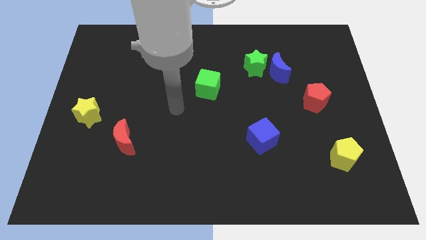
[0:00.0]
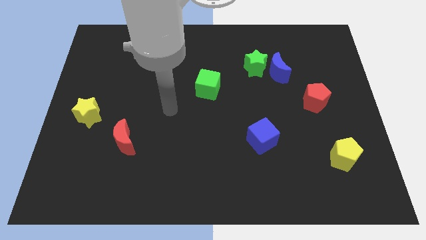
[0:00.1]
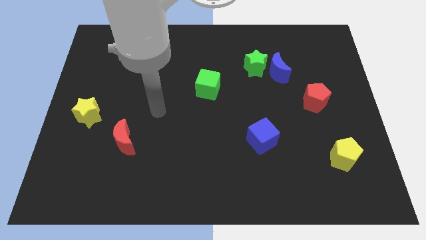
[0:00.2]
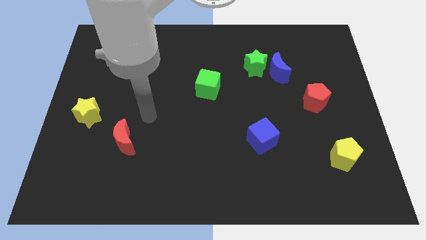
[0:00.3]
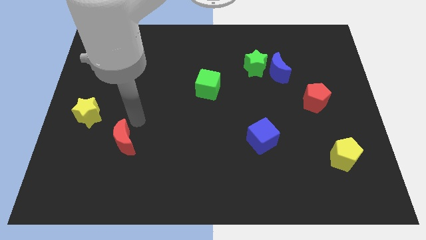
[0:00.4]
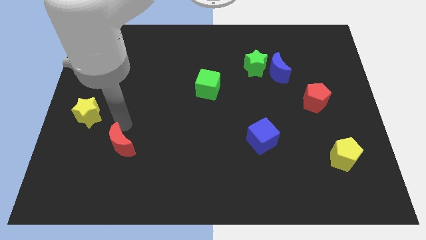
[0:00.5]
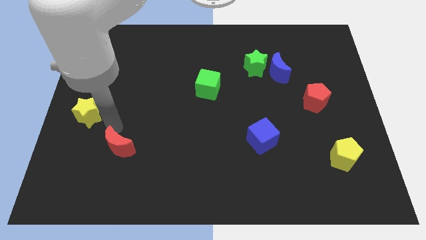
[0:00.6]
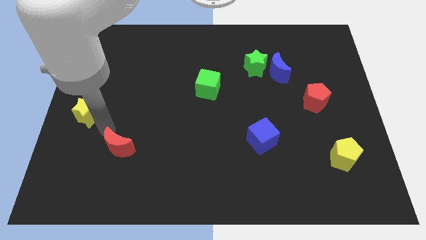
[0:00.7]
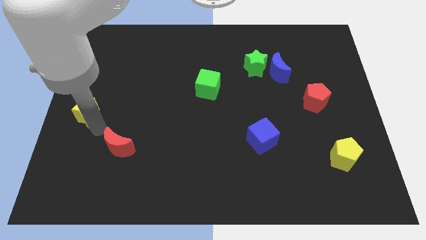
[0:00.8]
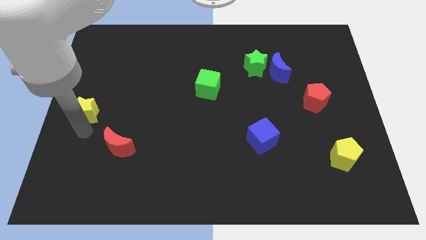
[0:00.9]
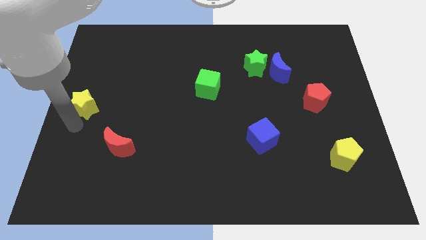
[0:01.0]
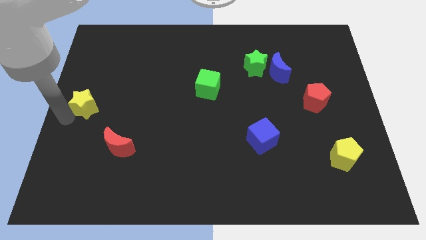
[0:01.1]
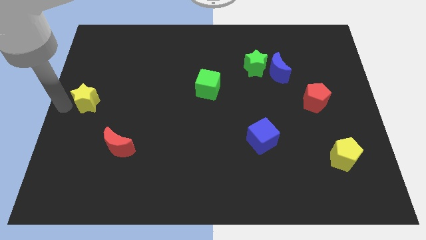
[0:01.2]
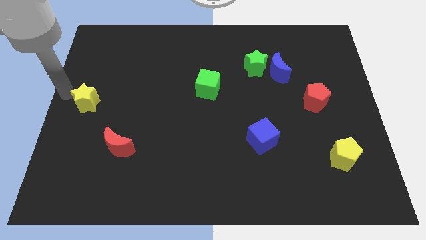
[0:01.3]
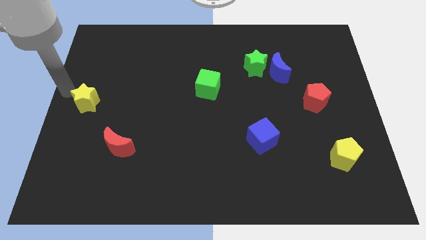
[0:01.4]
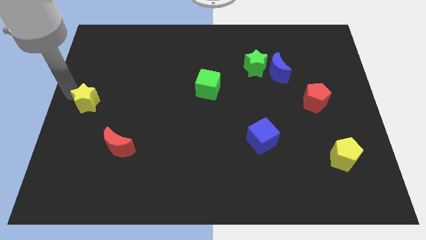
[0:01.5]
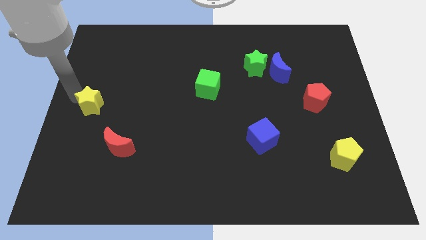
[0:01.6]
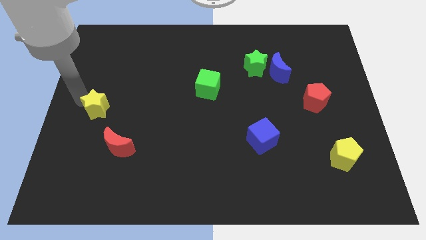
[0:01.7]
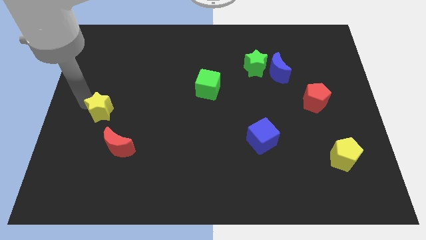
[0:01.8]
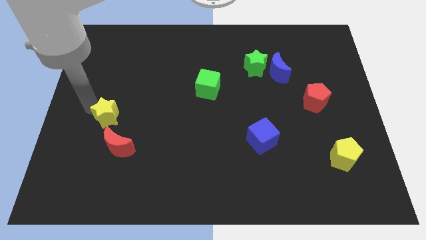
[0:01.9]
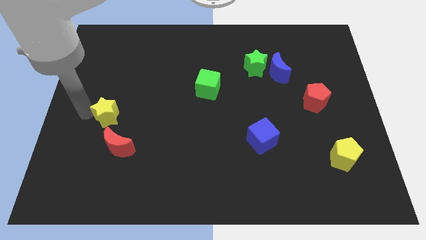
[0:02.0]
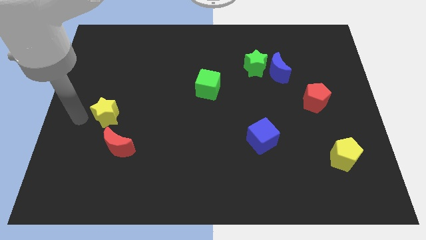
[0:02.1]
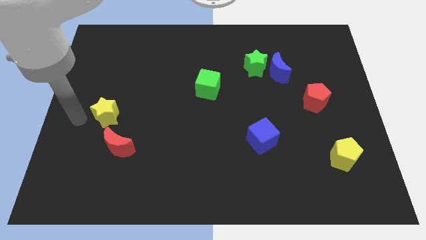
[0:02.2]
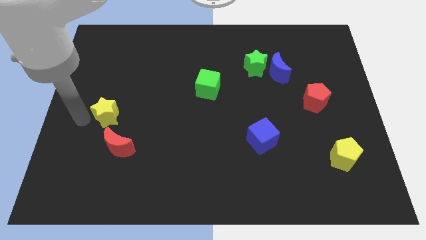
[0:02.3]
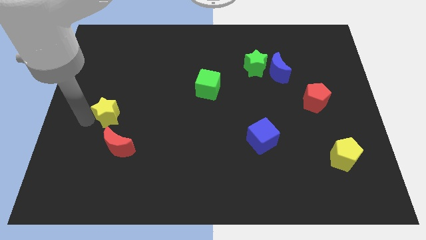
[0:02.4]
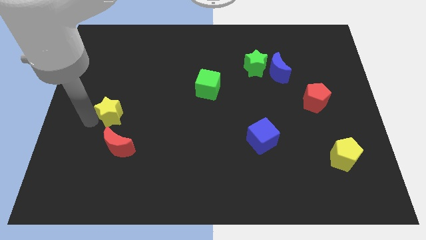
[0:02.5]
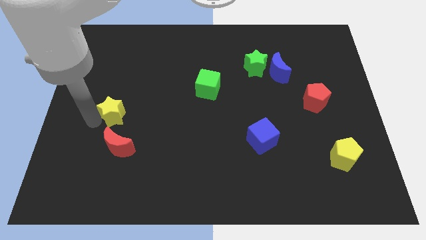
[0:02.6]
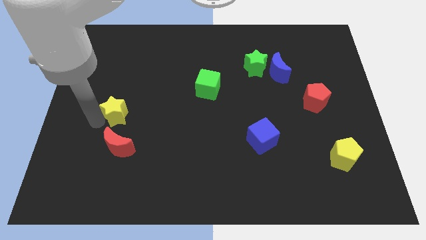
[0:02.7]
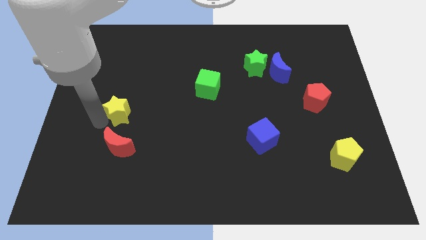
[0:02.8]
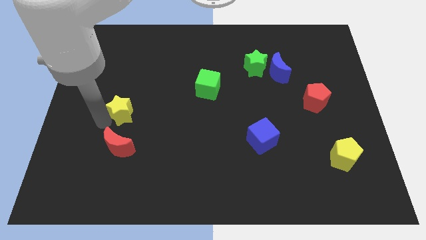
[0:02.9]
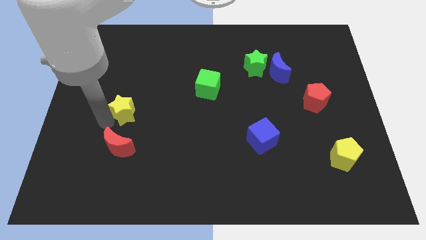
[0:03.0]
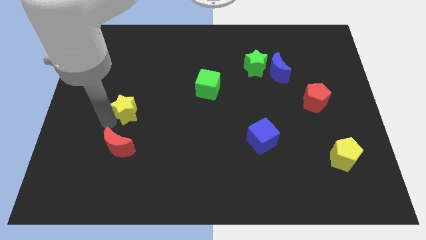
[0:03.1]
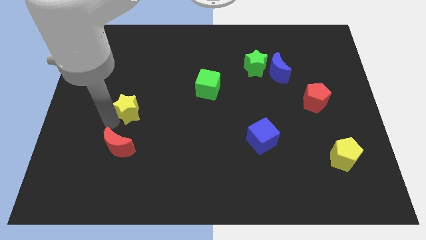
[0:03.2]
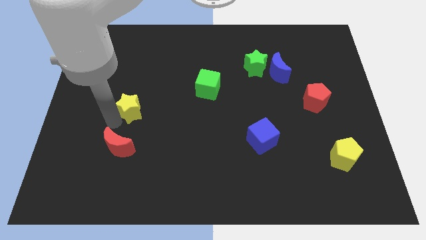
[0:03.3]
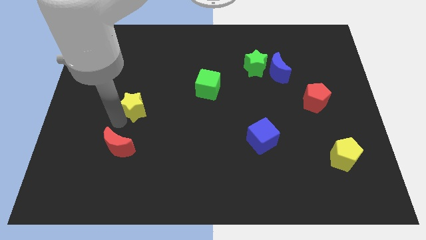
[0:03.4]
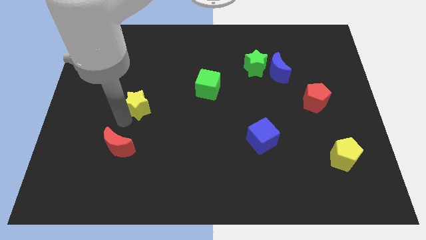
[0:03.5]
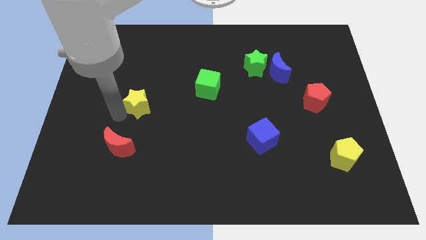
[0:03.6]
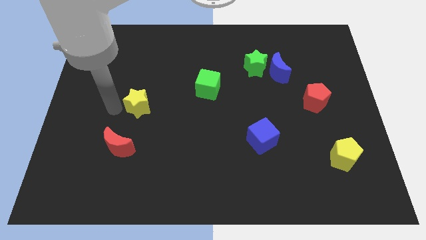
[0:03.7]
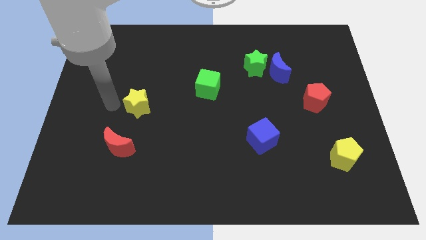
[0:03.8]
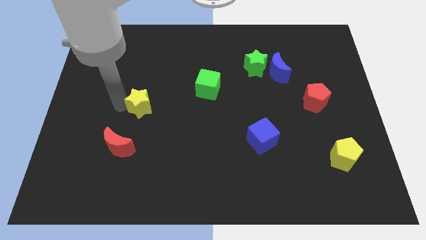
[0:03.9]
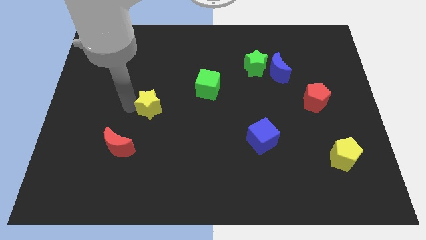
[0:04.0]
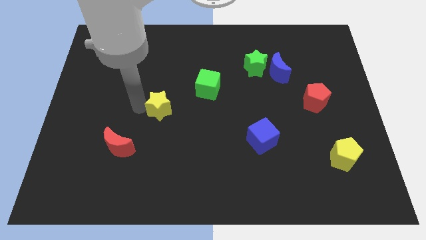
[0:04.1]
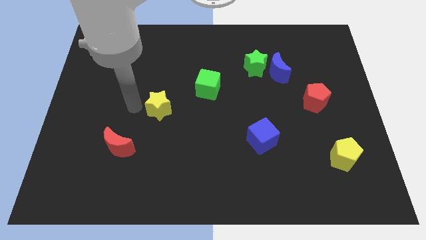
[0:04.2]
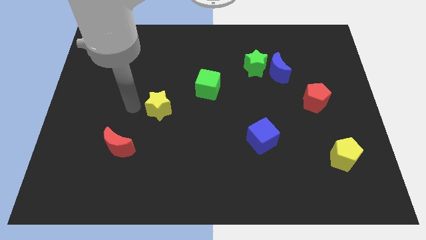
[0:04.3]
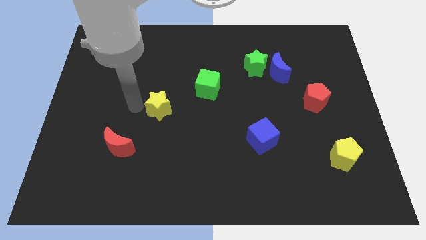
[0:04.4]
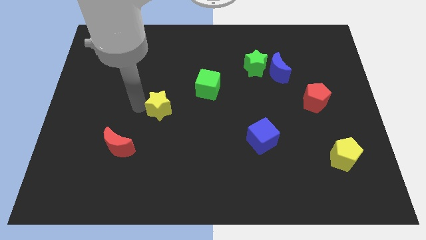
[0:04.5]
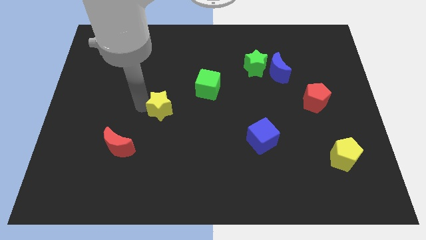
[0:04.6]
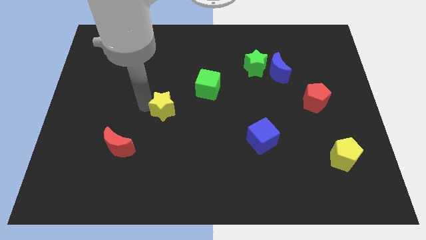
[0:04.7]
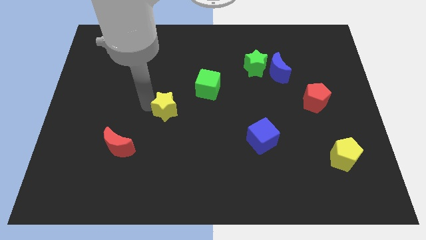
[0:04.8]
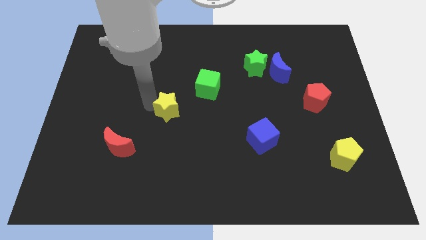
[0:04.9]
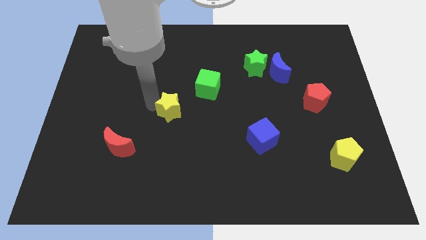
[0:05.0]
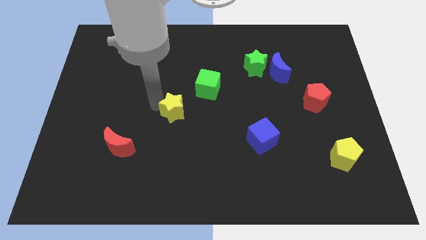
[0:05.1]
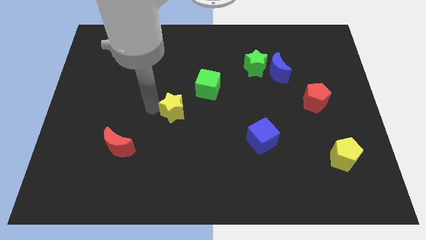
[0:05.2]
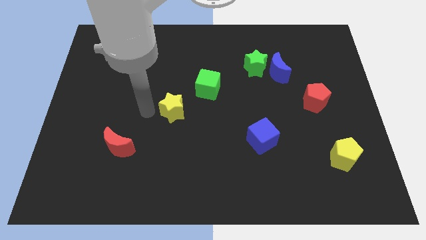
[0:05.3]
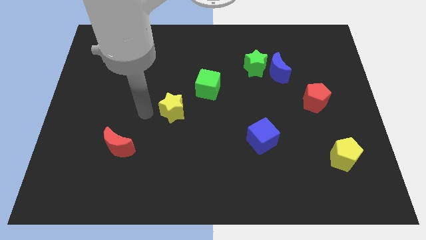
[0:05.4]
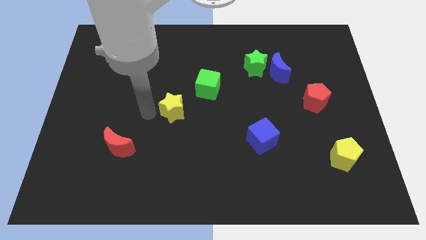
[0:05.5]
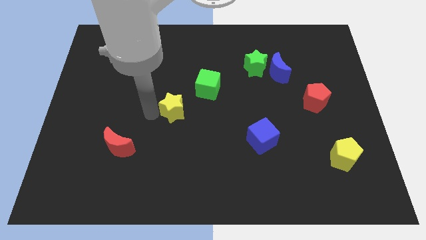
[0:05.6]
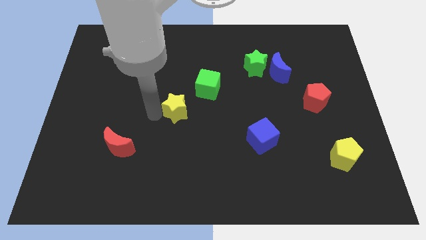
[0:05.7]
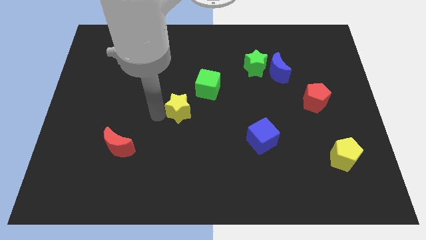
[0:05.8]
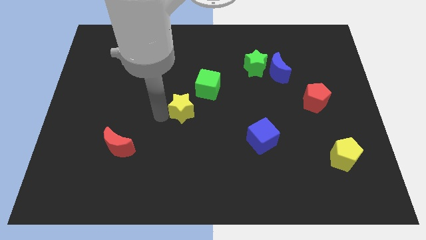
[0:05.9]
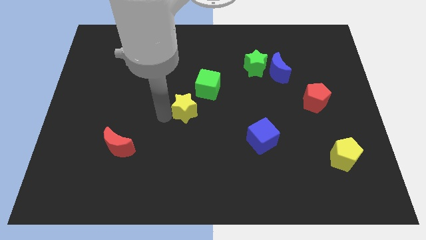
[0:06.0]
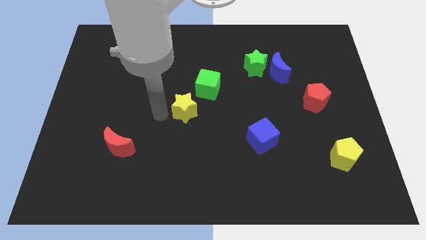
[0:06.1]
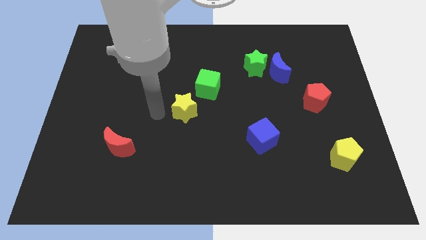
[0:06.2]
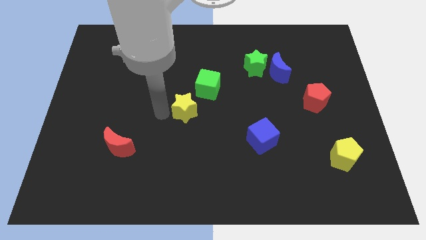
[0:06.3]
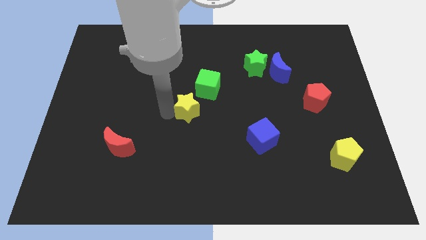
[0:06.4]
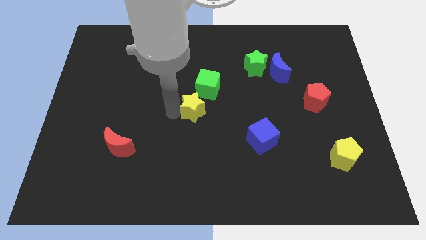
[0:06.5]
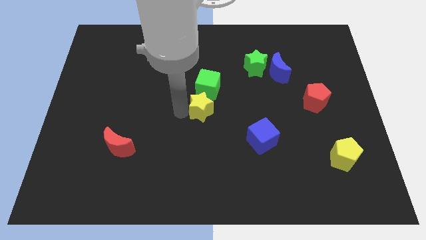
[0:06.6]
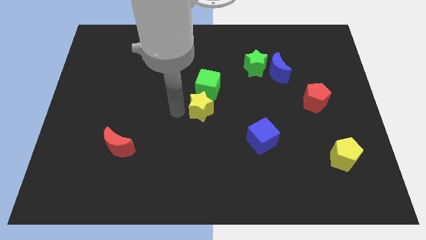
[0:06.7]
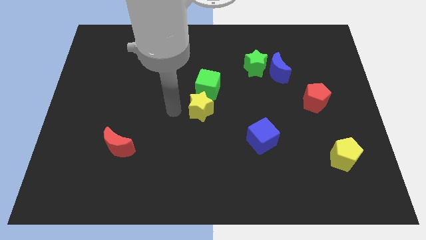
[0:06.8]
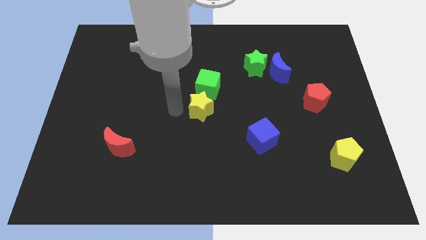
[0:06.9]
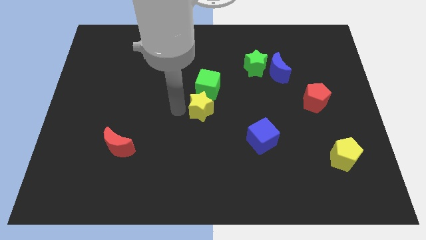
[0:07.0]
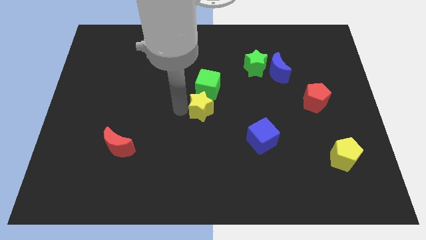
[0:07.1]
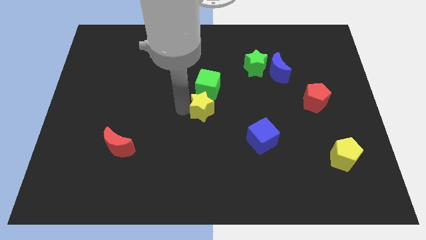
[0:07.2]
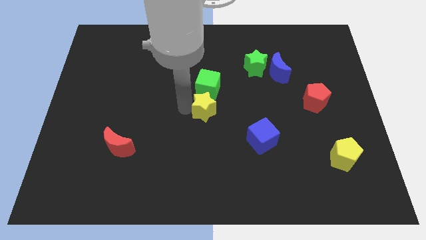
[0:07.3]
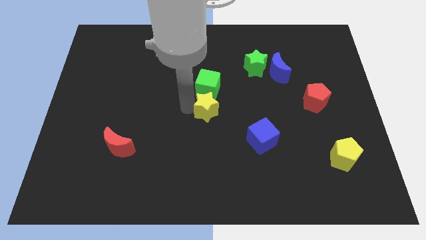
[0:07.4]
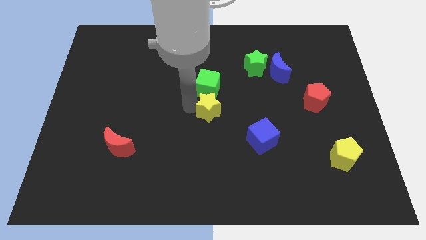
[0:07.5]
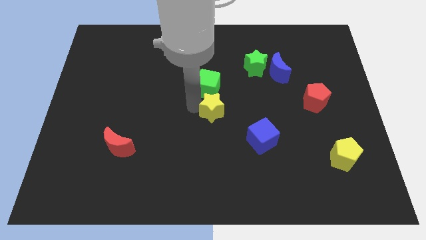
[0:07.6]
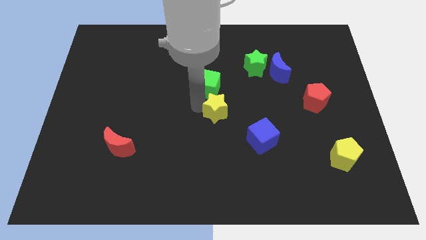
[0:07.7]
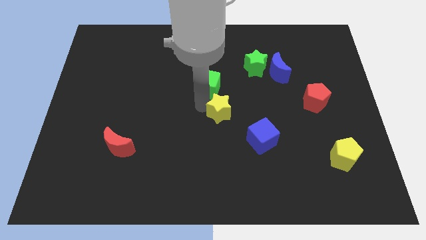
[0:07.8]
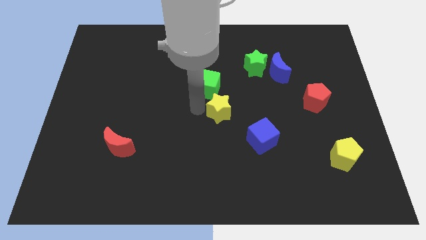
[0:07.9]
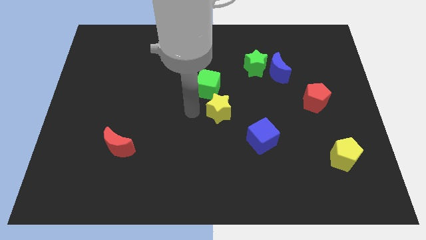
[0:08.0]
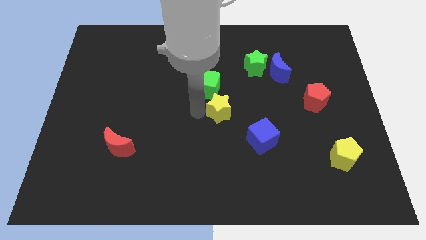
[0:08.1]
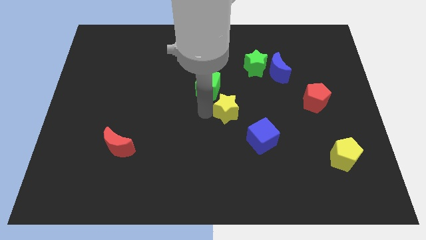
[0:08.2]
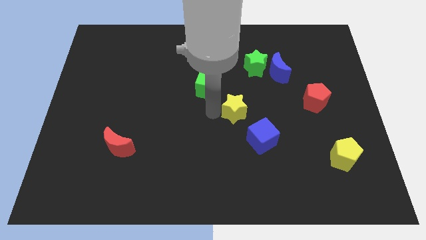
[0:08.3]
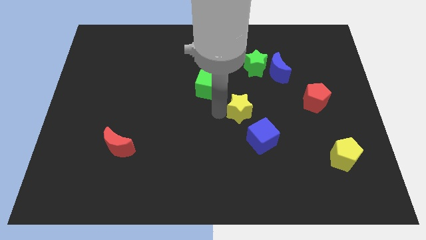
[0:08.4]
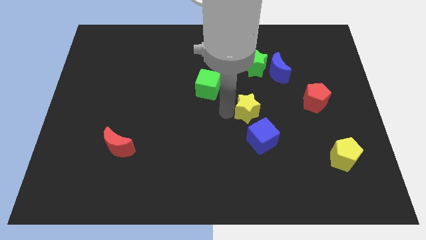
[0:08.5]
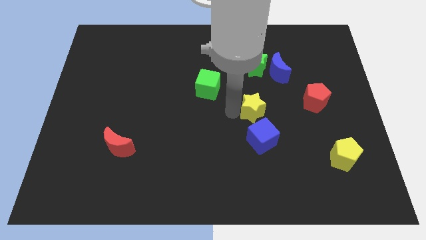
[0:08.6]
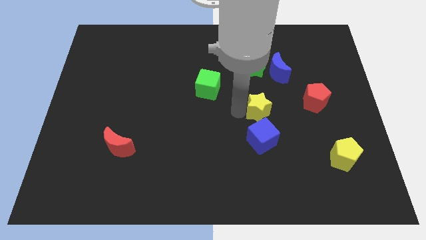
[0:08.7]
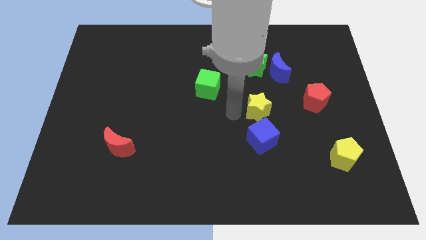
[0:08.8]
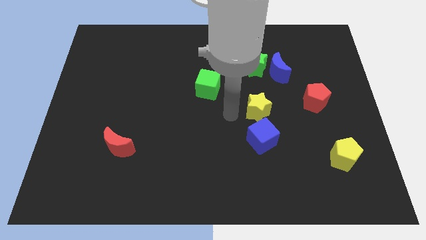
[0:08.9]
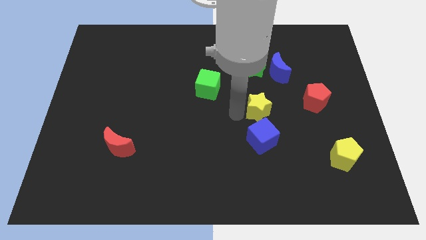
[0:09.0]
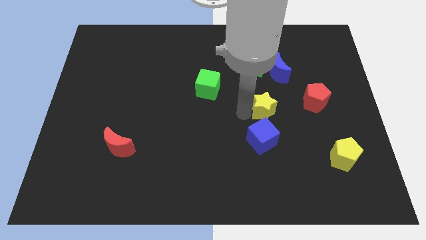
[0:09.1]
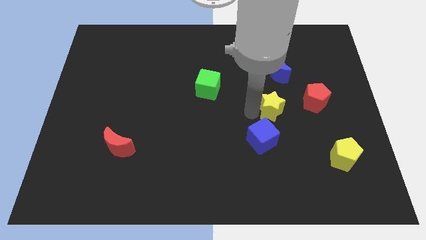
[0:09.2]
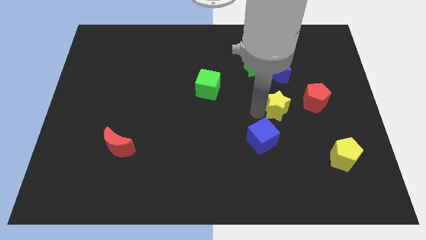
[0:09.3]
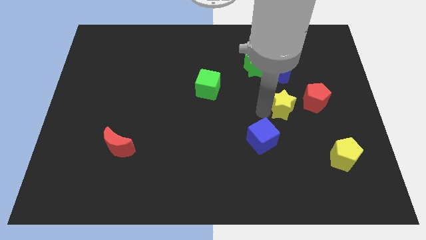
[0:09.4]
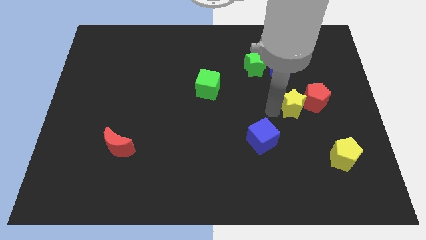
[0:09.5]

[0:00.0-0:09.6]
move the yellow star close to the red pentagon
